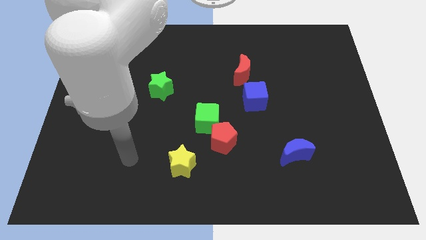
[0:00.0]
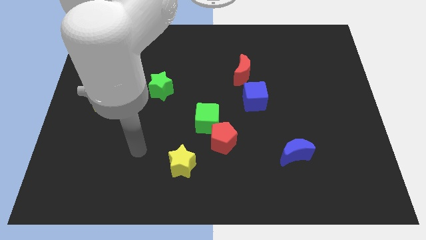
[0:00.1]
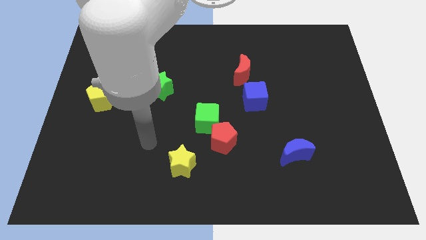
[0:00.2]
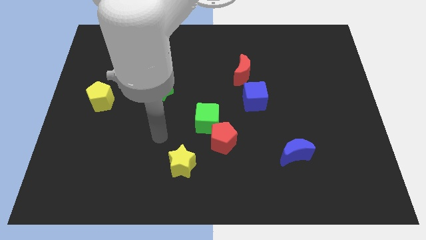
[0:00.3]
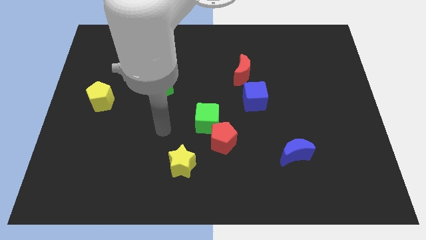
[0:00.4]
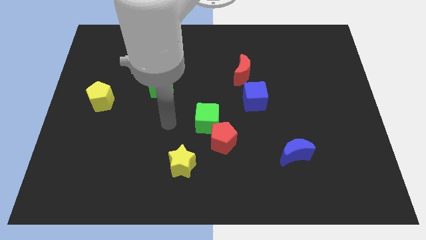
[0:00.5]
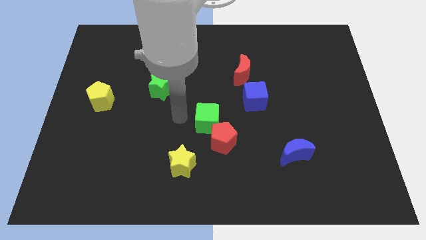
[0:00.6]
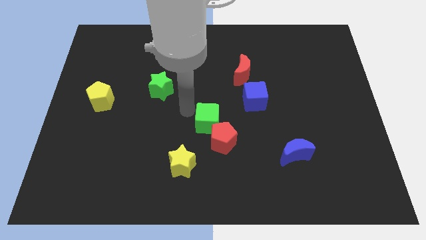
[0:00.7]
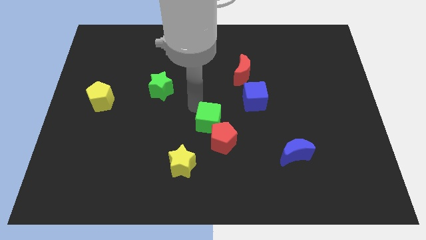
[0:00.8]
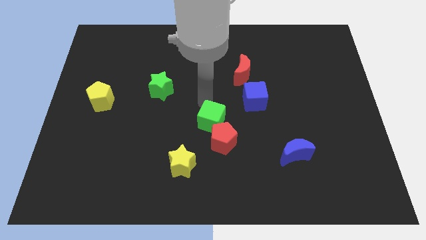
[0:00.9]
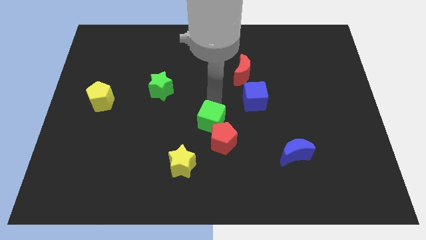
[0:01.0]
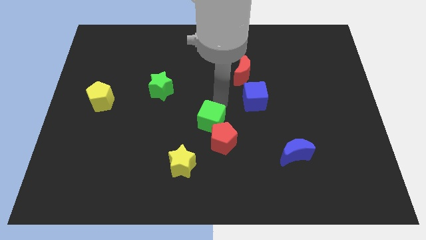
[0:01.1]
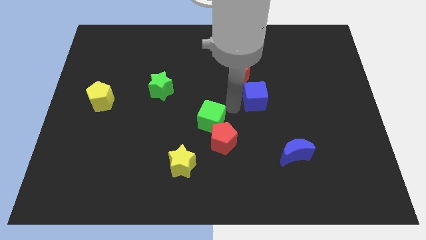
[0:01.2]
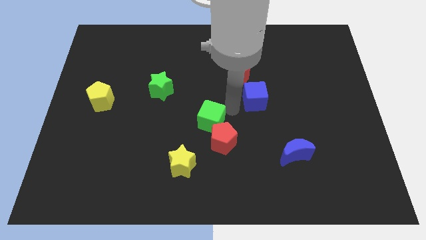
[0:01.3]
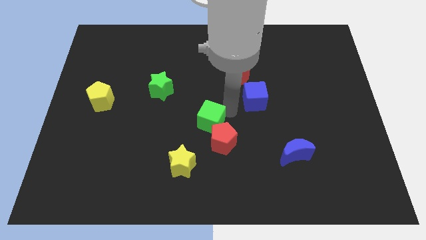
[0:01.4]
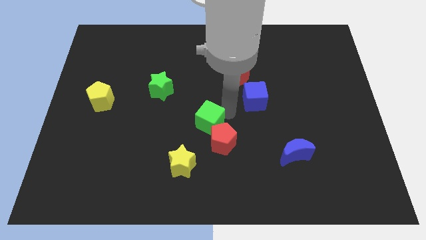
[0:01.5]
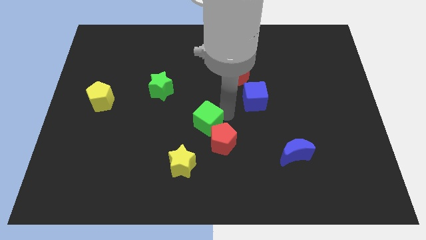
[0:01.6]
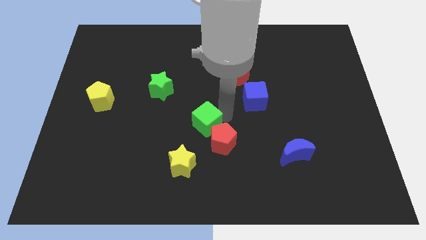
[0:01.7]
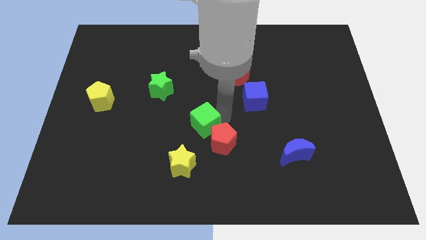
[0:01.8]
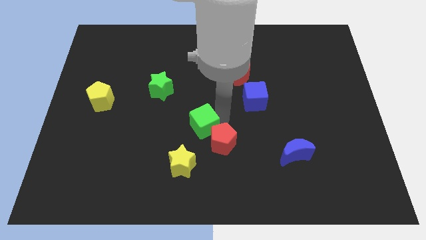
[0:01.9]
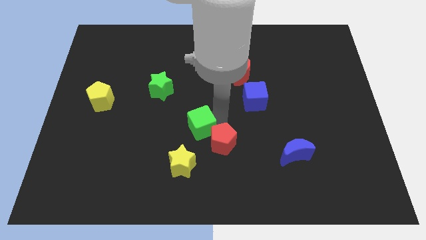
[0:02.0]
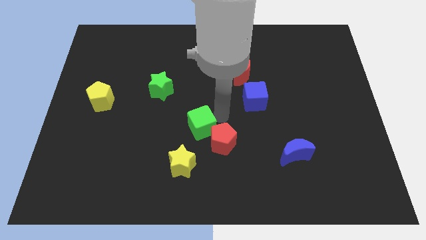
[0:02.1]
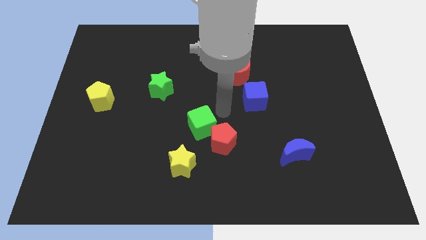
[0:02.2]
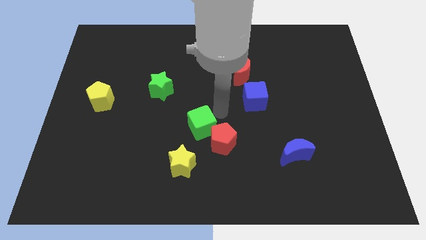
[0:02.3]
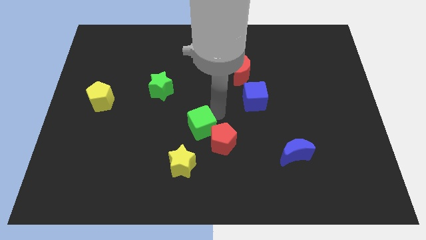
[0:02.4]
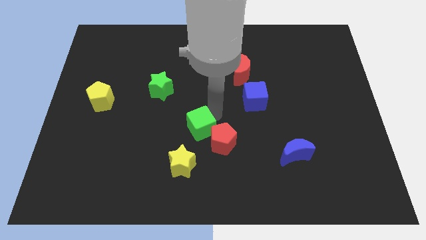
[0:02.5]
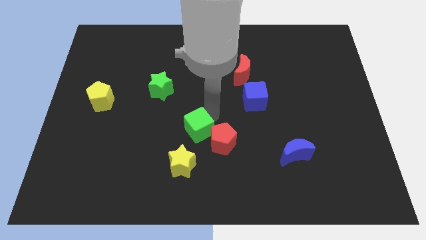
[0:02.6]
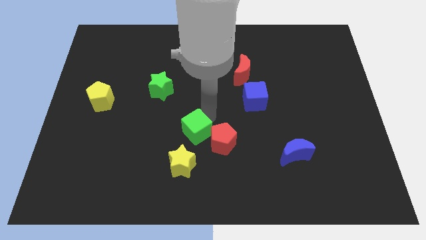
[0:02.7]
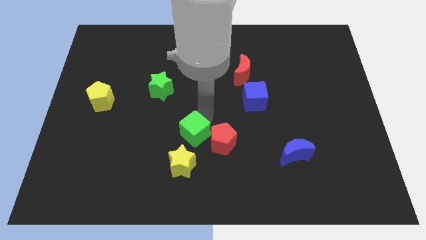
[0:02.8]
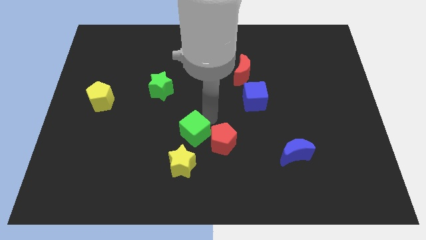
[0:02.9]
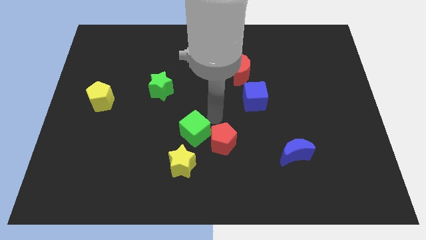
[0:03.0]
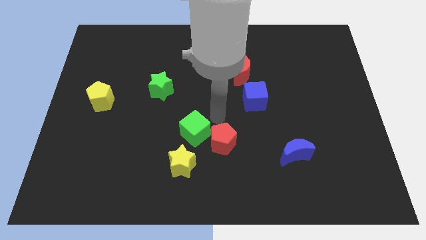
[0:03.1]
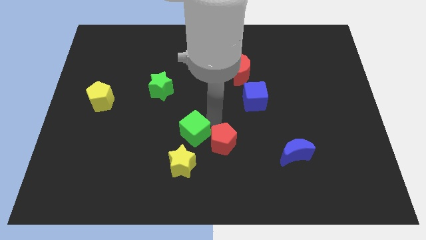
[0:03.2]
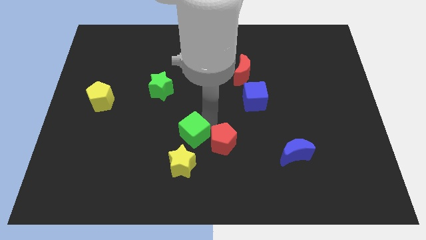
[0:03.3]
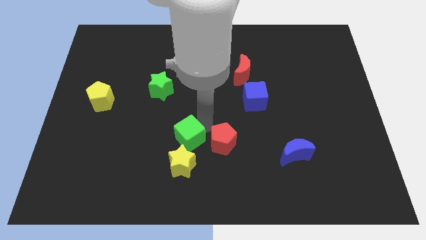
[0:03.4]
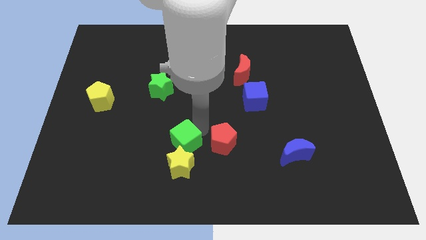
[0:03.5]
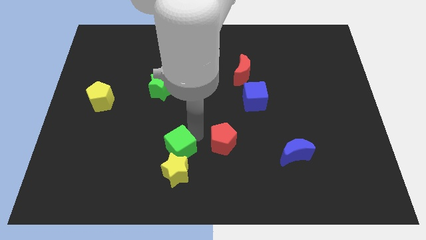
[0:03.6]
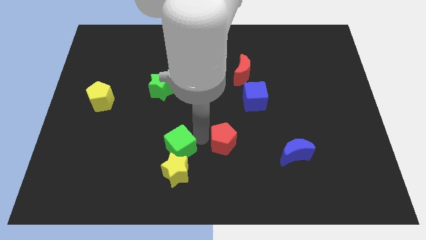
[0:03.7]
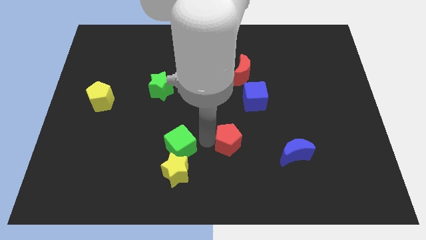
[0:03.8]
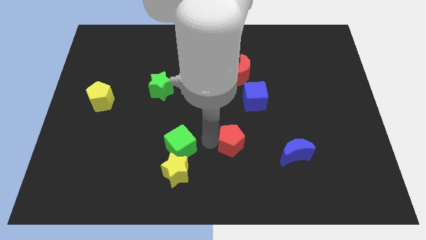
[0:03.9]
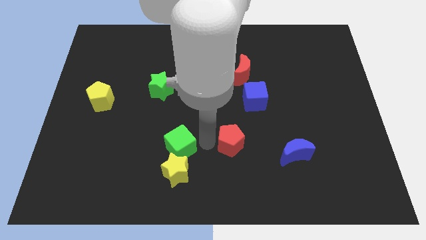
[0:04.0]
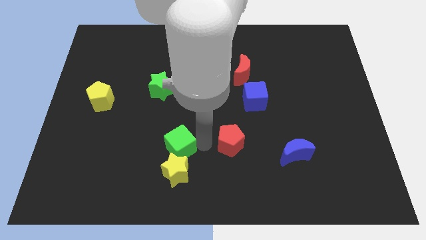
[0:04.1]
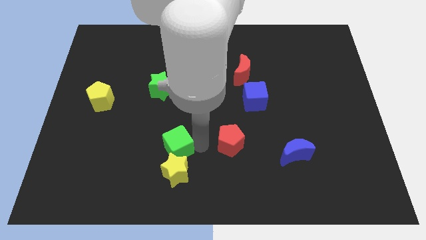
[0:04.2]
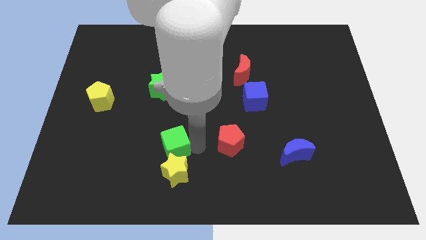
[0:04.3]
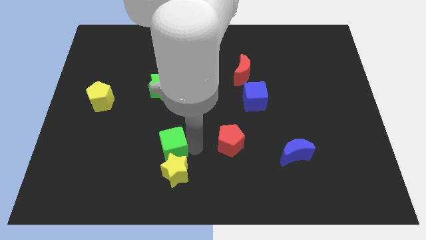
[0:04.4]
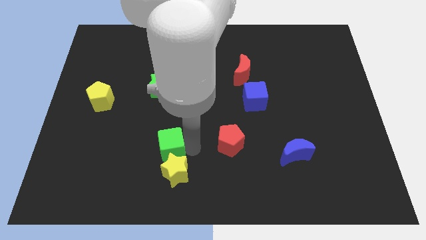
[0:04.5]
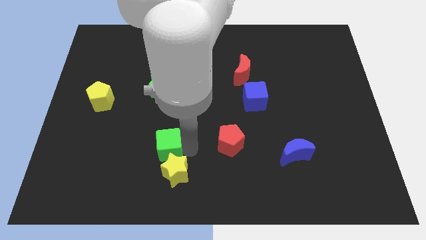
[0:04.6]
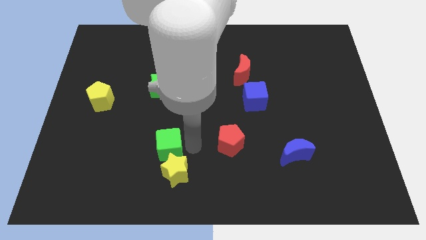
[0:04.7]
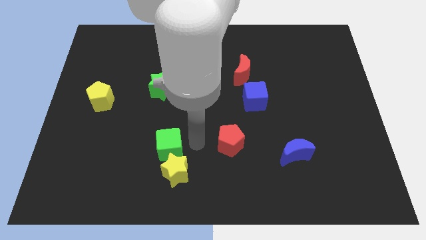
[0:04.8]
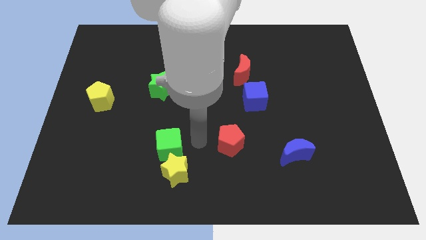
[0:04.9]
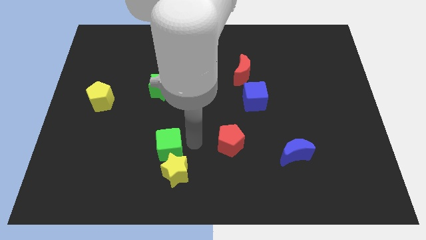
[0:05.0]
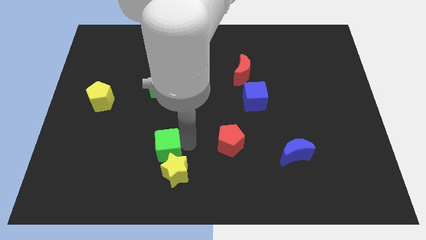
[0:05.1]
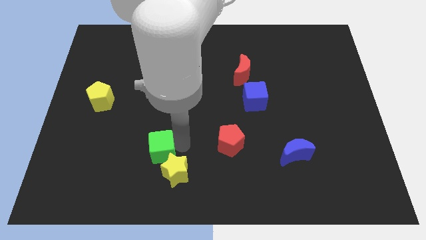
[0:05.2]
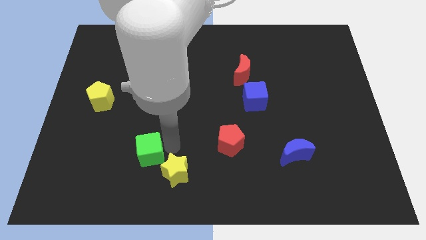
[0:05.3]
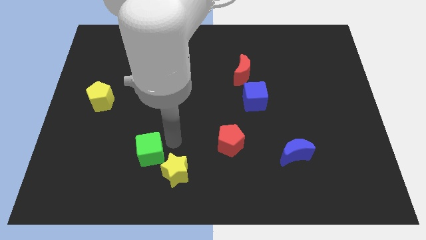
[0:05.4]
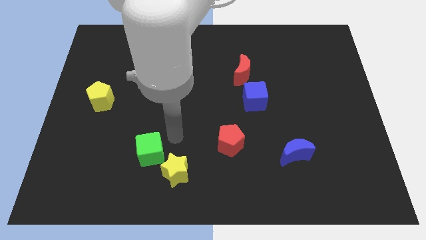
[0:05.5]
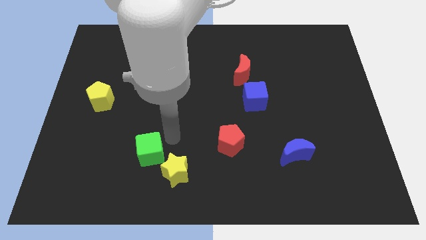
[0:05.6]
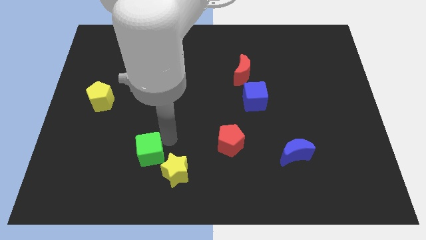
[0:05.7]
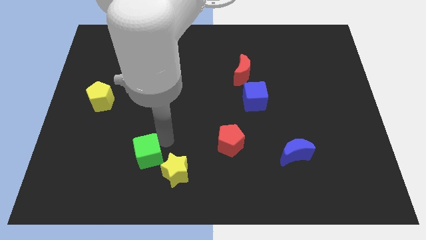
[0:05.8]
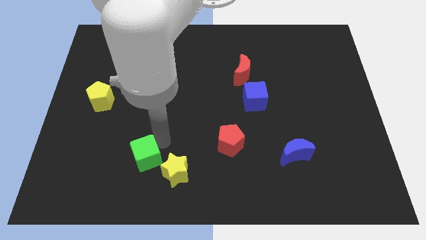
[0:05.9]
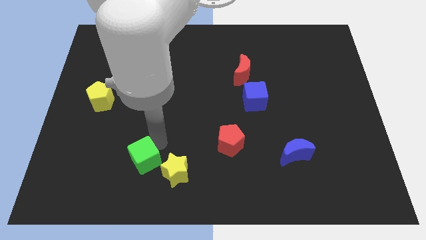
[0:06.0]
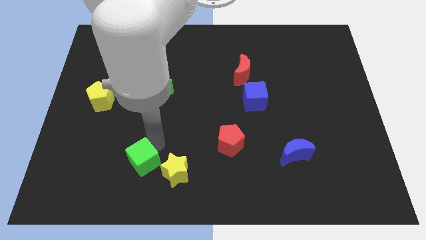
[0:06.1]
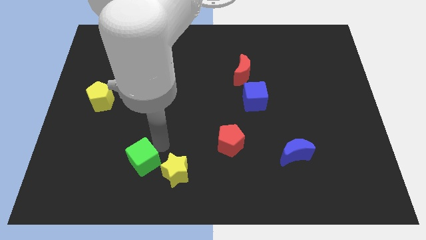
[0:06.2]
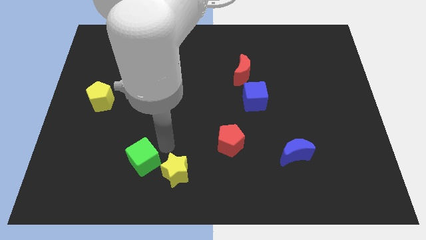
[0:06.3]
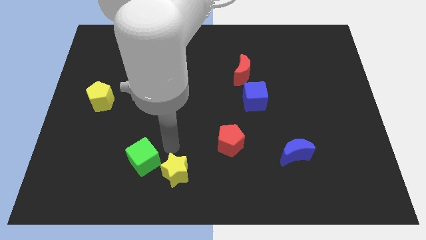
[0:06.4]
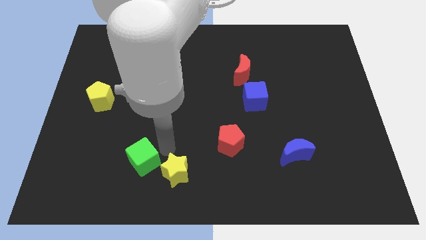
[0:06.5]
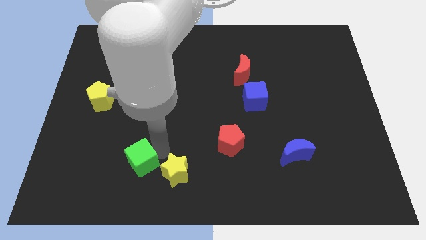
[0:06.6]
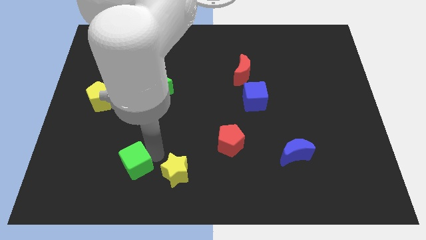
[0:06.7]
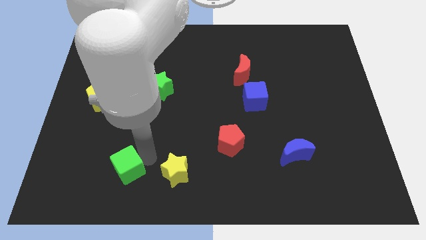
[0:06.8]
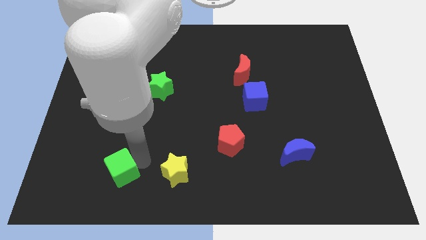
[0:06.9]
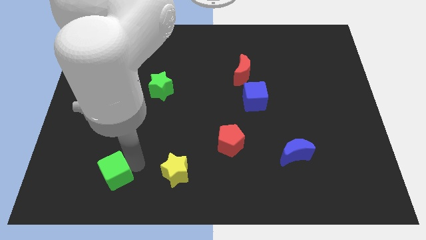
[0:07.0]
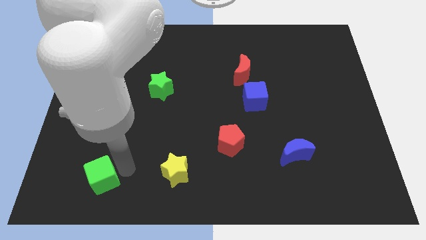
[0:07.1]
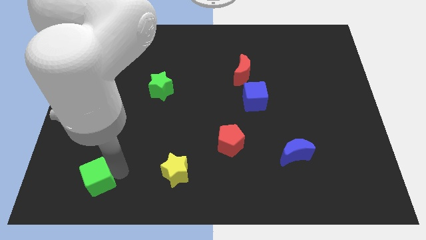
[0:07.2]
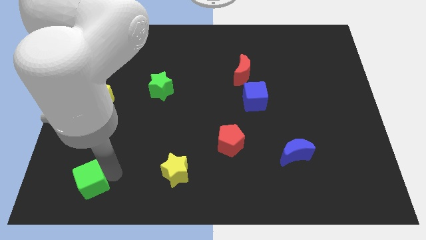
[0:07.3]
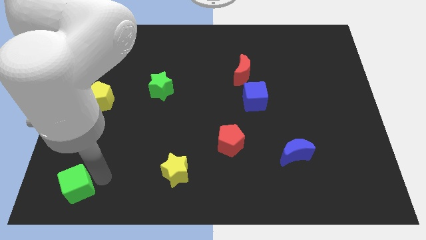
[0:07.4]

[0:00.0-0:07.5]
slide the green cube to the bottom left corner
